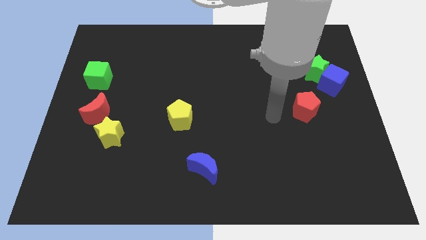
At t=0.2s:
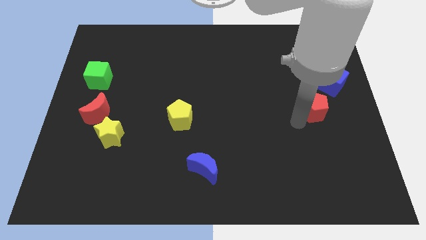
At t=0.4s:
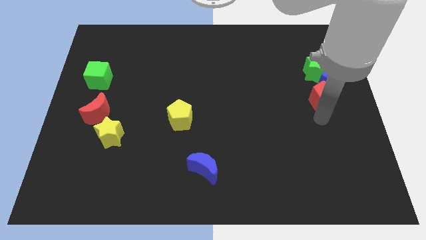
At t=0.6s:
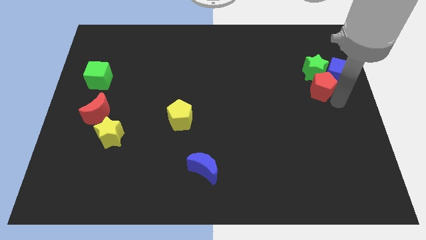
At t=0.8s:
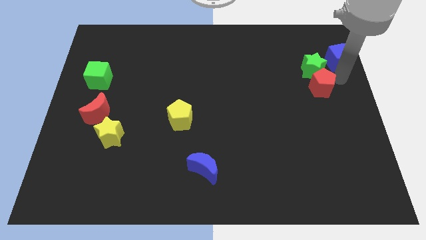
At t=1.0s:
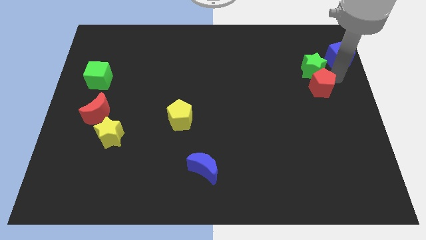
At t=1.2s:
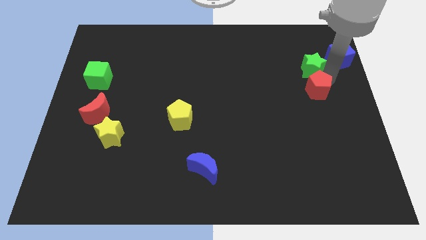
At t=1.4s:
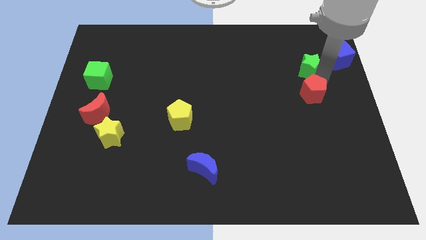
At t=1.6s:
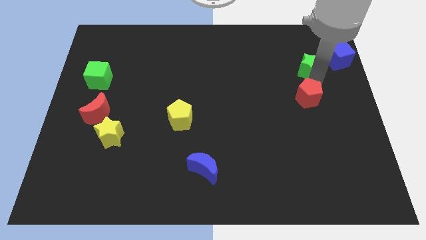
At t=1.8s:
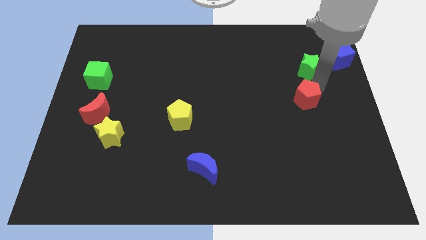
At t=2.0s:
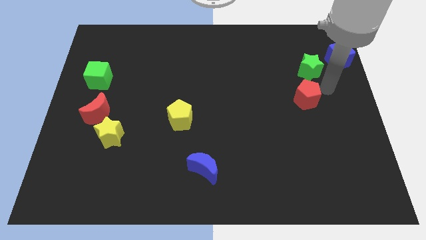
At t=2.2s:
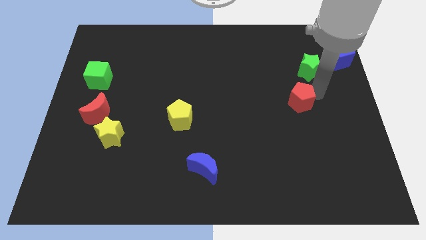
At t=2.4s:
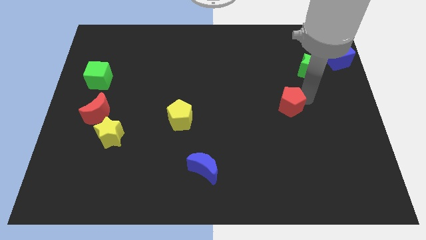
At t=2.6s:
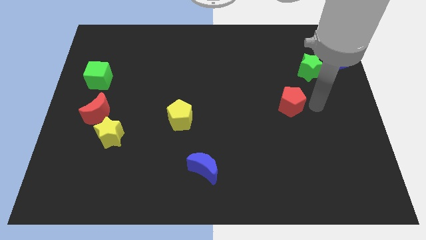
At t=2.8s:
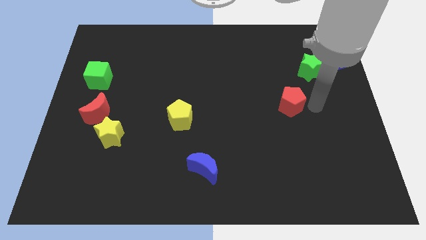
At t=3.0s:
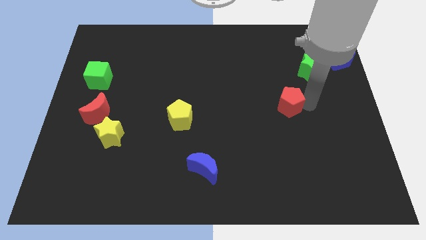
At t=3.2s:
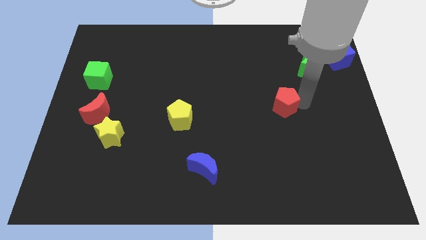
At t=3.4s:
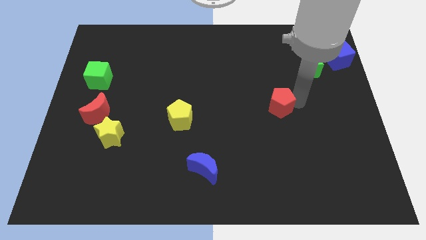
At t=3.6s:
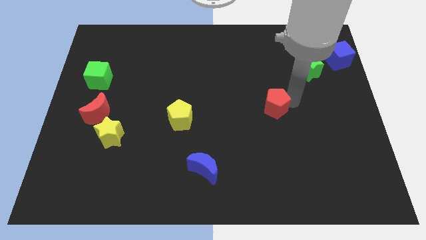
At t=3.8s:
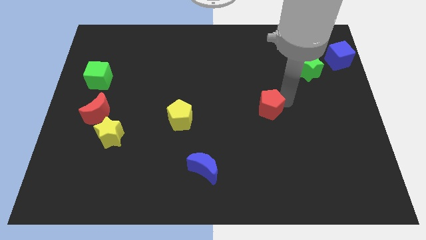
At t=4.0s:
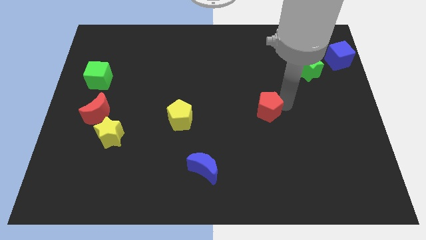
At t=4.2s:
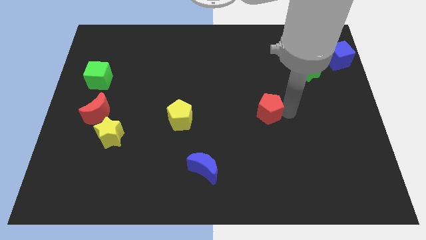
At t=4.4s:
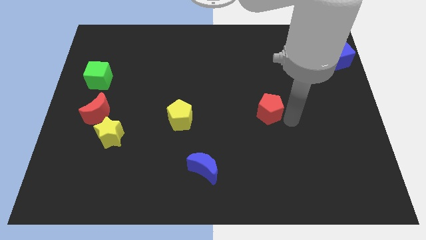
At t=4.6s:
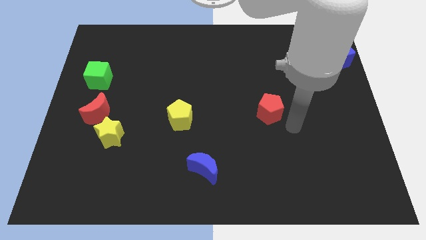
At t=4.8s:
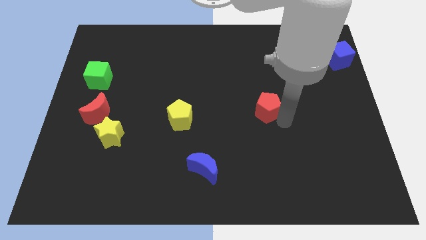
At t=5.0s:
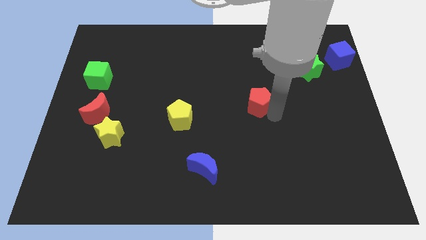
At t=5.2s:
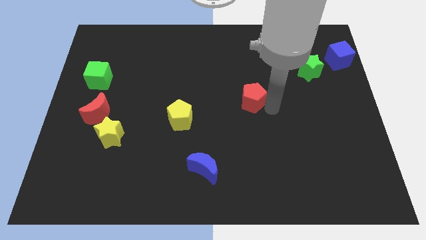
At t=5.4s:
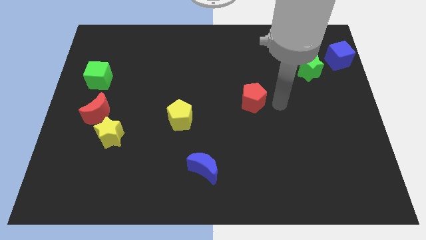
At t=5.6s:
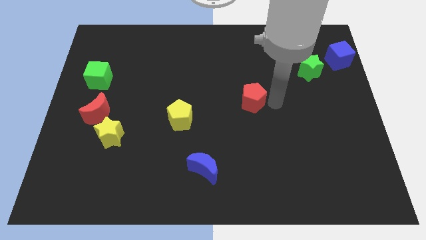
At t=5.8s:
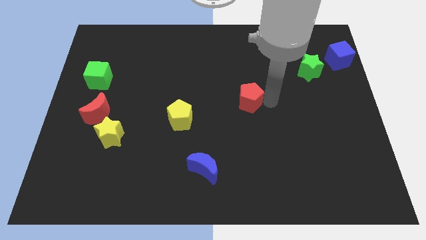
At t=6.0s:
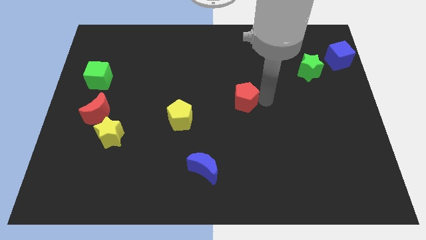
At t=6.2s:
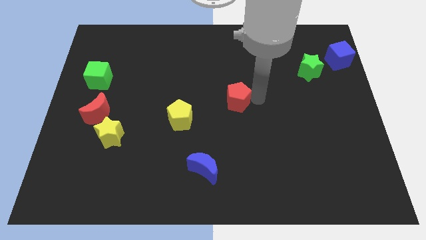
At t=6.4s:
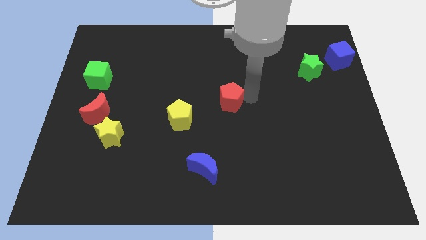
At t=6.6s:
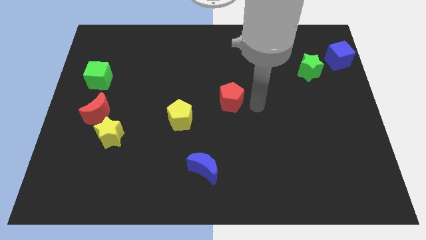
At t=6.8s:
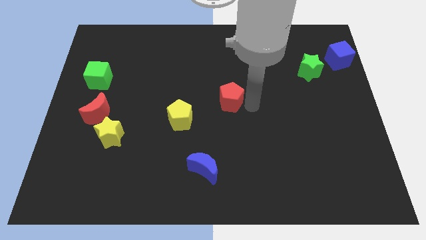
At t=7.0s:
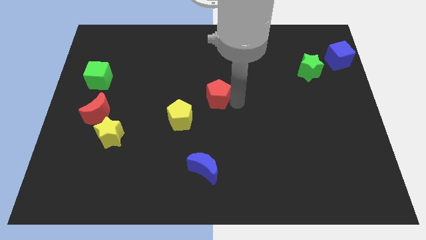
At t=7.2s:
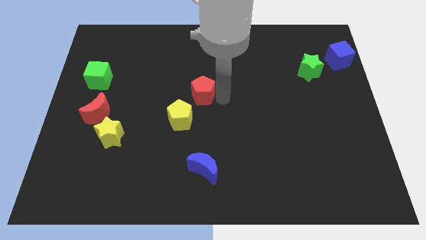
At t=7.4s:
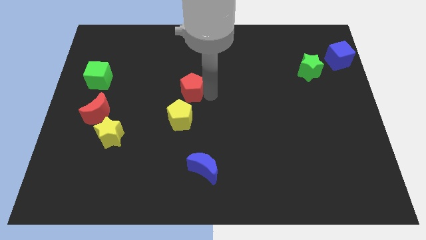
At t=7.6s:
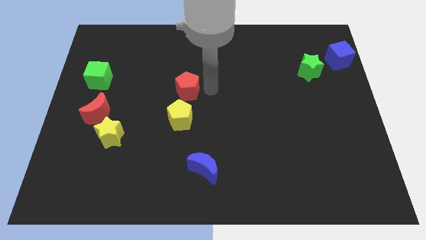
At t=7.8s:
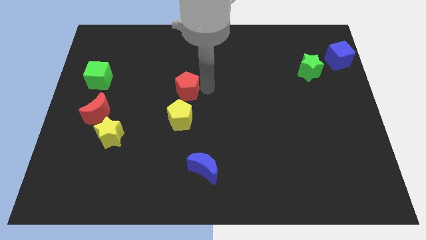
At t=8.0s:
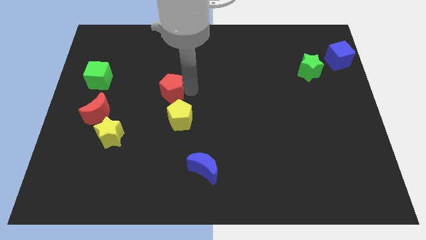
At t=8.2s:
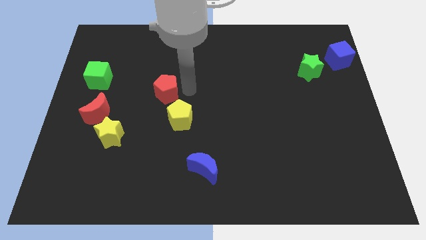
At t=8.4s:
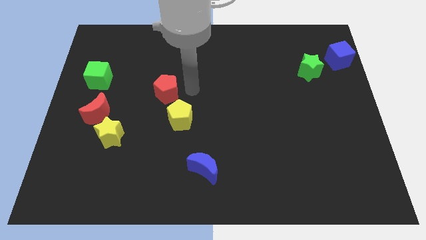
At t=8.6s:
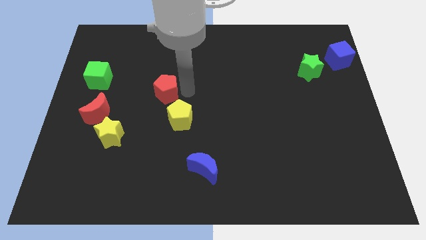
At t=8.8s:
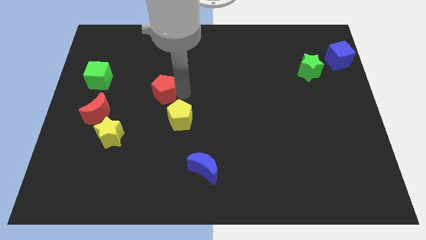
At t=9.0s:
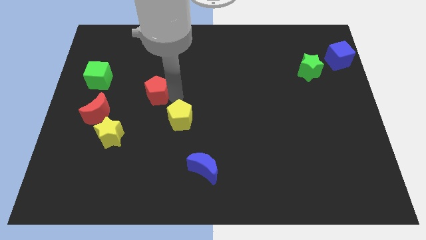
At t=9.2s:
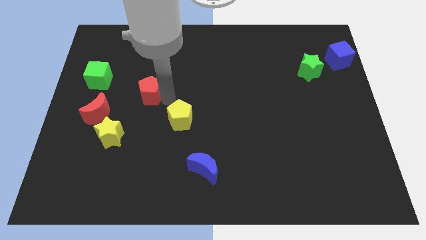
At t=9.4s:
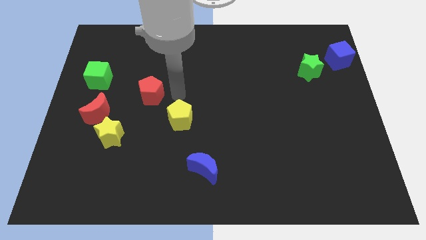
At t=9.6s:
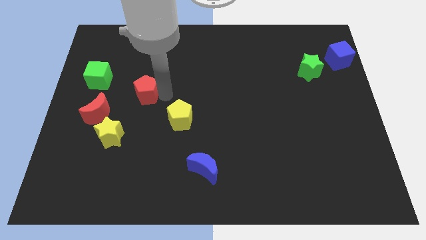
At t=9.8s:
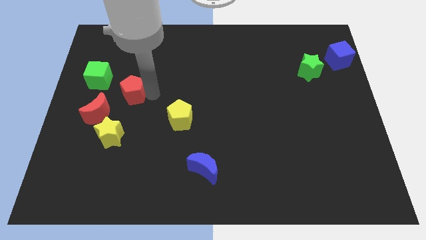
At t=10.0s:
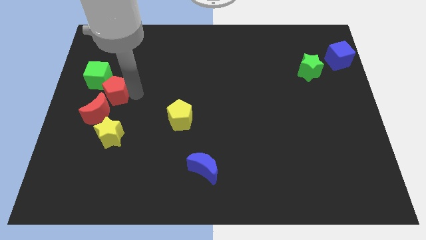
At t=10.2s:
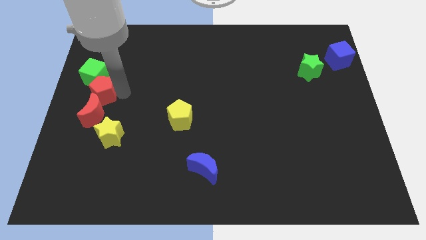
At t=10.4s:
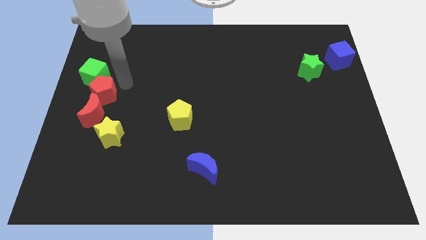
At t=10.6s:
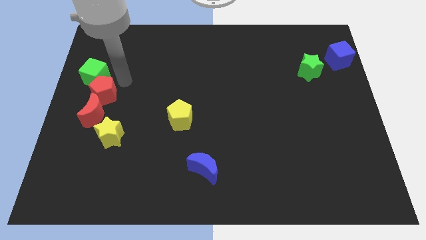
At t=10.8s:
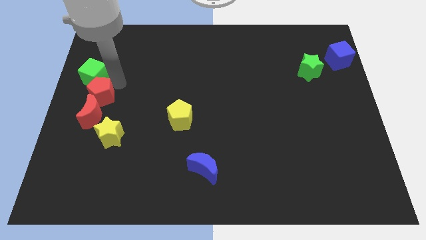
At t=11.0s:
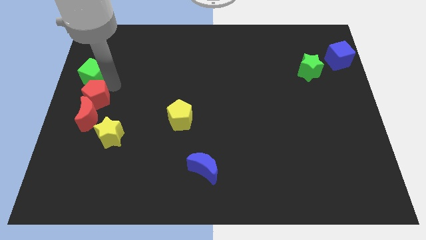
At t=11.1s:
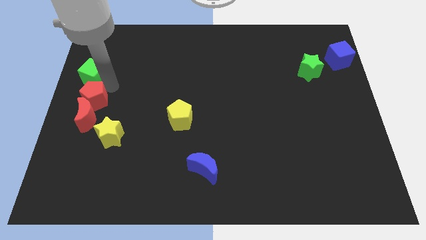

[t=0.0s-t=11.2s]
push the red pentagon to the top left of the yellow star

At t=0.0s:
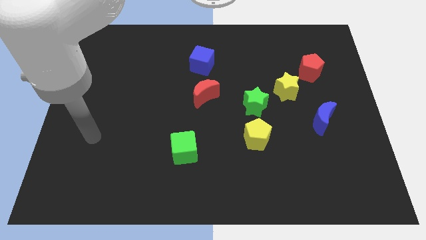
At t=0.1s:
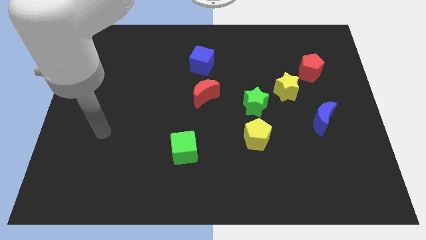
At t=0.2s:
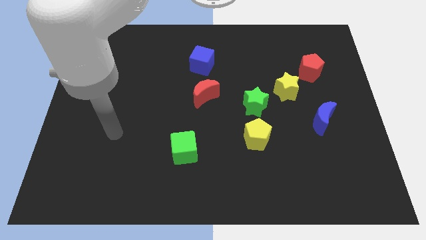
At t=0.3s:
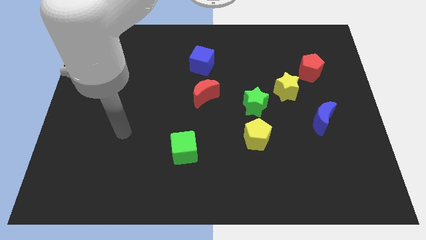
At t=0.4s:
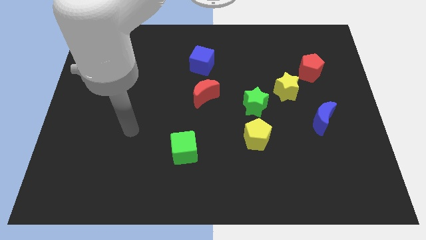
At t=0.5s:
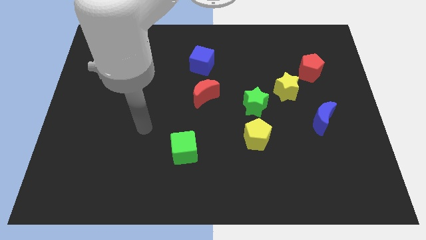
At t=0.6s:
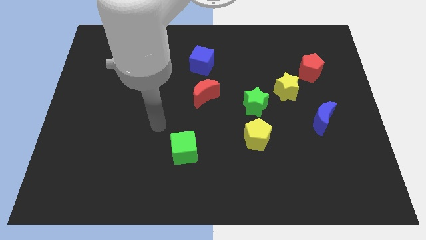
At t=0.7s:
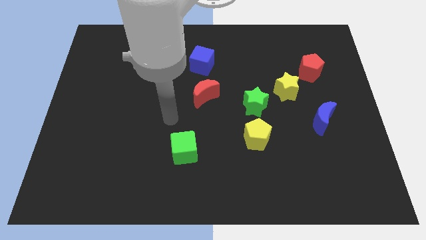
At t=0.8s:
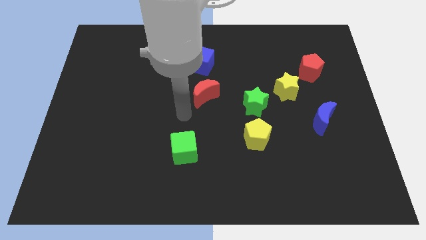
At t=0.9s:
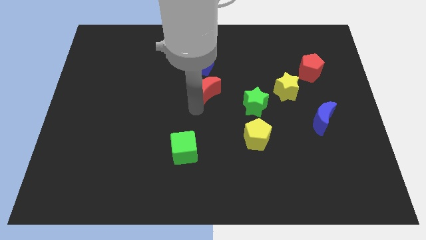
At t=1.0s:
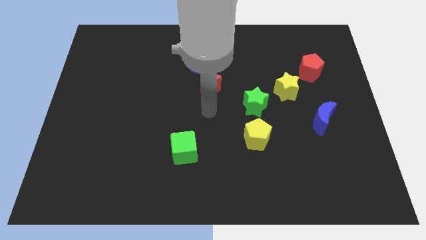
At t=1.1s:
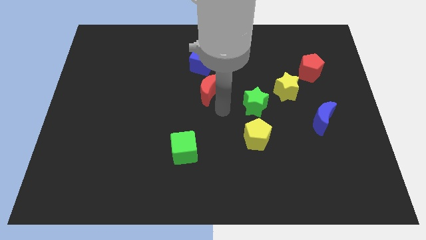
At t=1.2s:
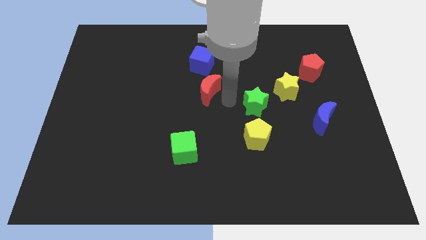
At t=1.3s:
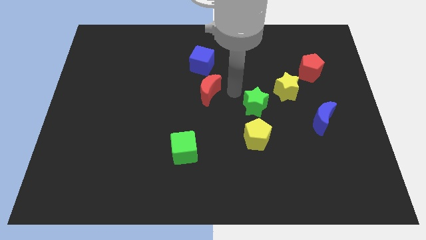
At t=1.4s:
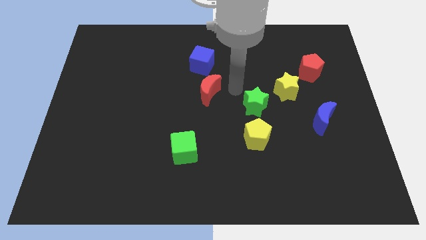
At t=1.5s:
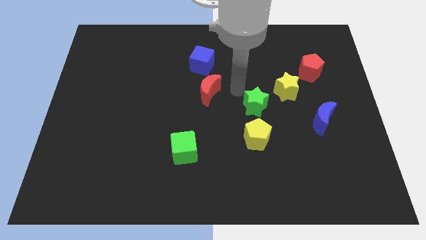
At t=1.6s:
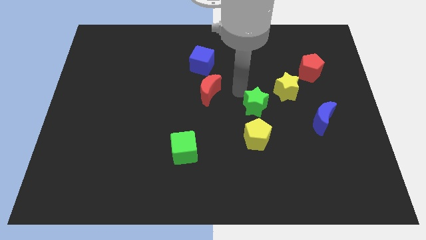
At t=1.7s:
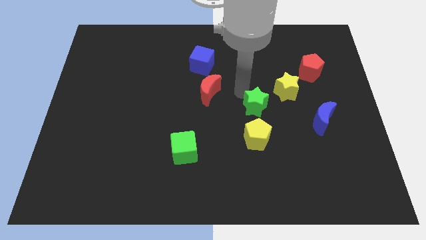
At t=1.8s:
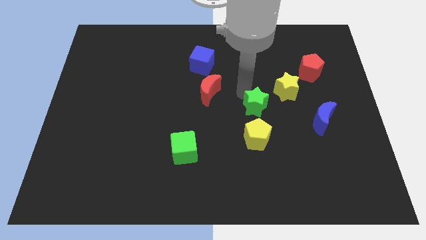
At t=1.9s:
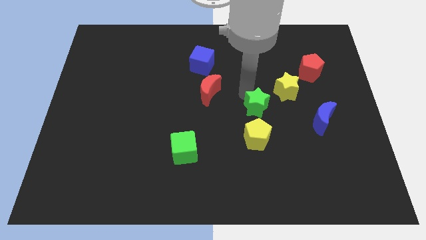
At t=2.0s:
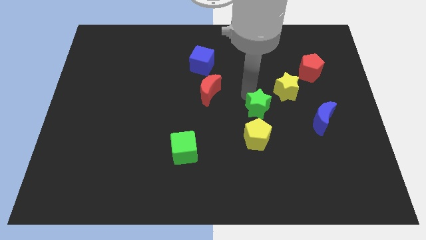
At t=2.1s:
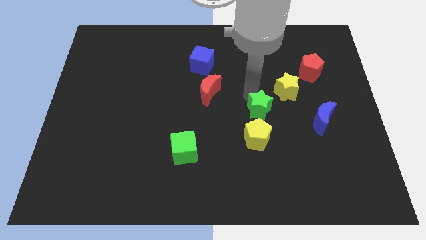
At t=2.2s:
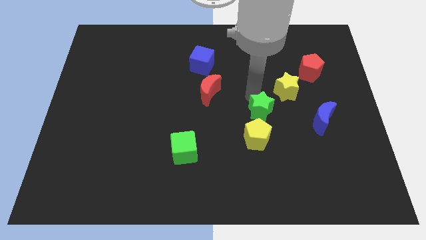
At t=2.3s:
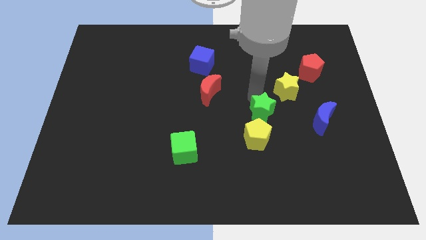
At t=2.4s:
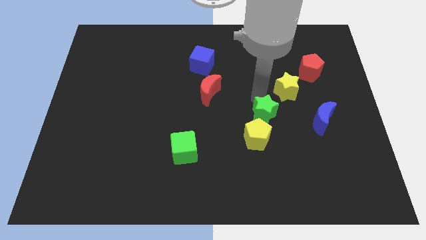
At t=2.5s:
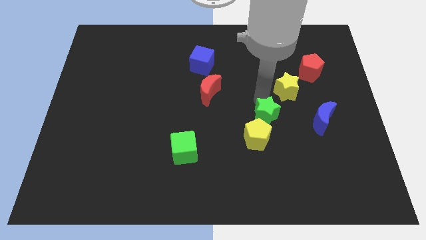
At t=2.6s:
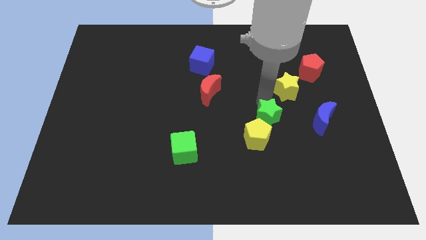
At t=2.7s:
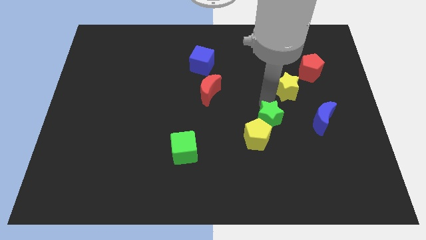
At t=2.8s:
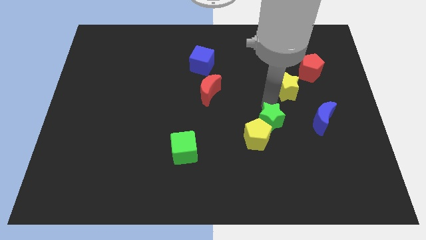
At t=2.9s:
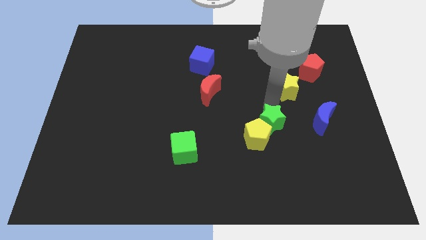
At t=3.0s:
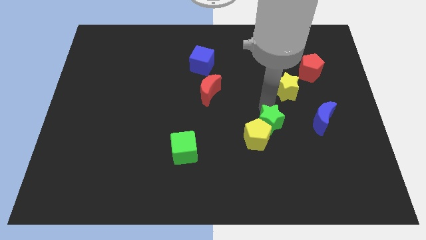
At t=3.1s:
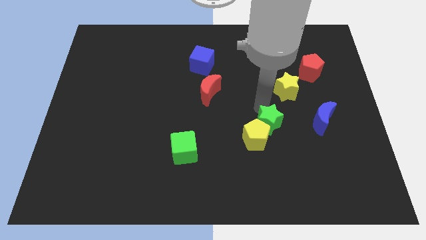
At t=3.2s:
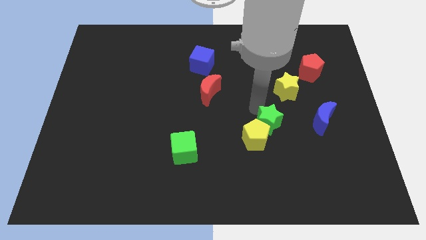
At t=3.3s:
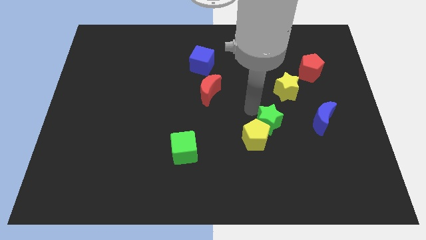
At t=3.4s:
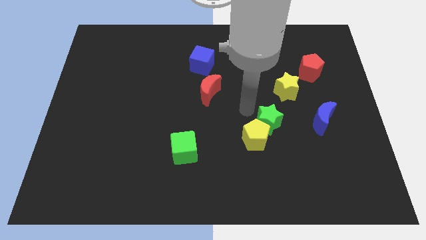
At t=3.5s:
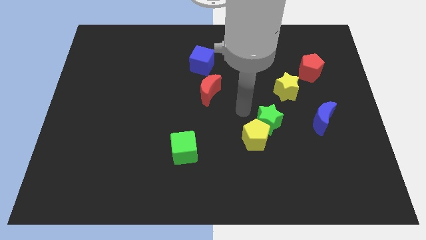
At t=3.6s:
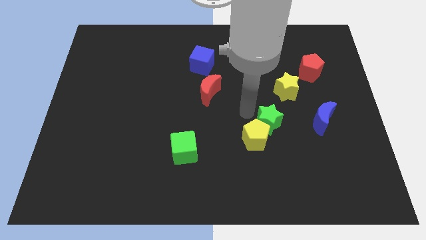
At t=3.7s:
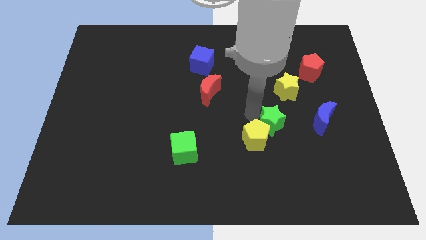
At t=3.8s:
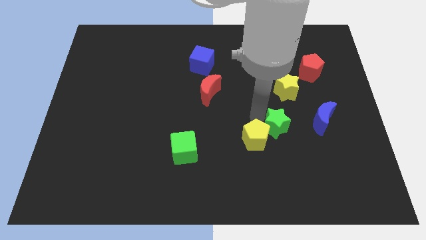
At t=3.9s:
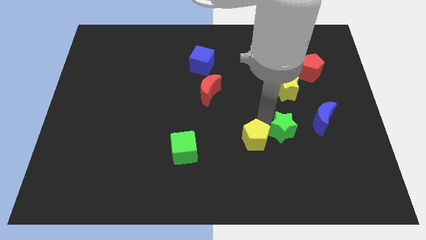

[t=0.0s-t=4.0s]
slide the green star diagonally down and to the left of the blue moon
